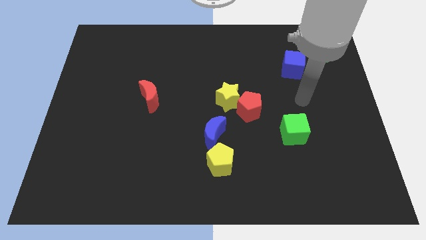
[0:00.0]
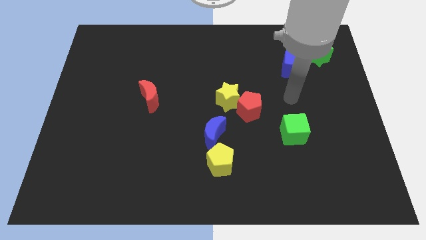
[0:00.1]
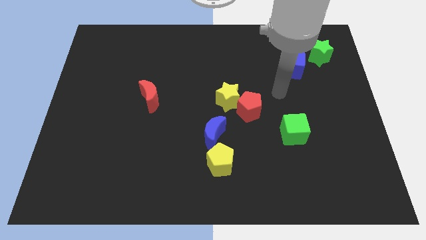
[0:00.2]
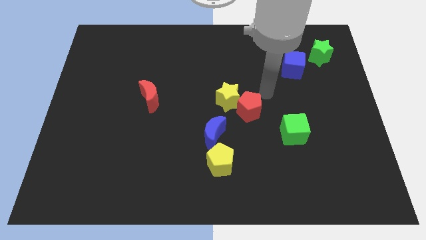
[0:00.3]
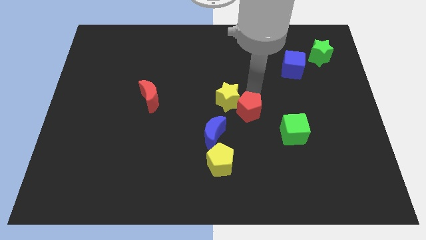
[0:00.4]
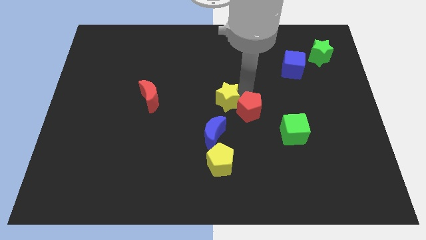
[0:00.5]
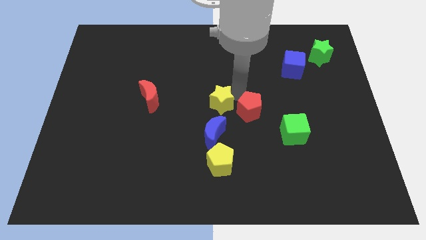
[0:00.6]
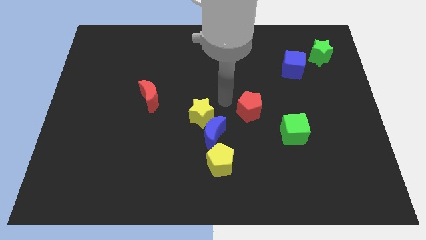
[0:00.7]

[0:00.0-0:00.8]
move the red pentagon away from the yellow star

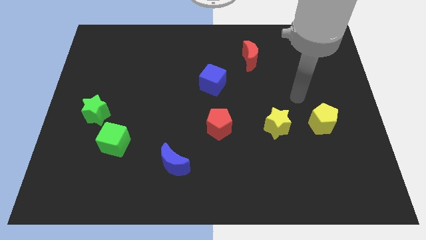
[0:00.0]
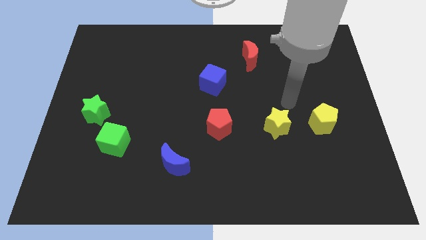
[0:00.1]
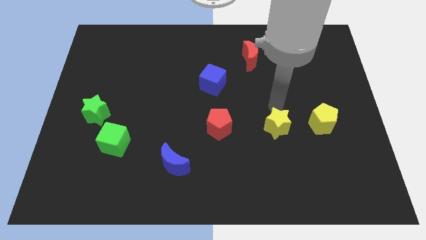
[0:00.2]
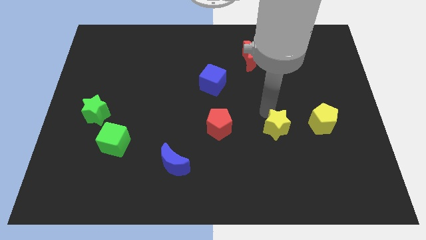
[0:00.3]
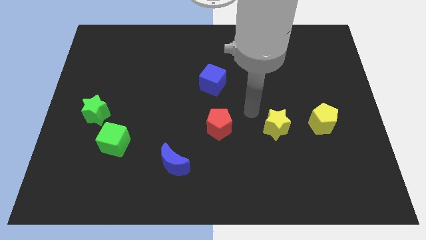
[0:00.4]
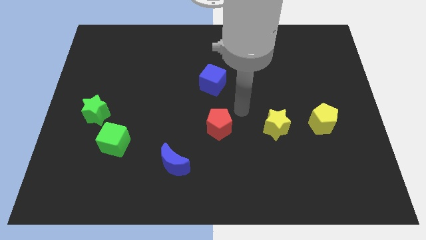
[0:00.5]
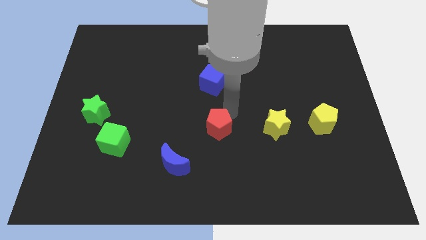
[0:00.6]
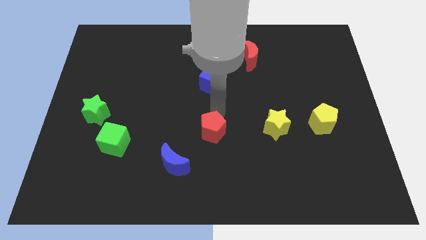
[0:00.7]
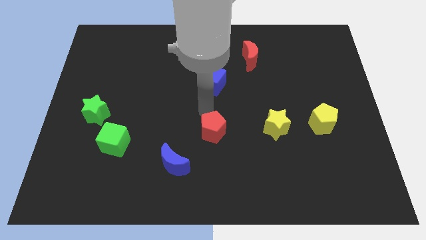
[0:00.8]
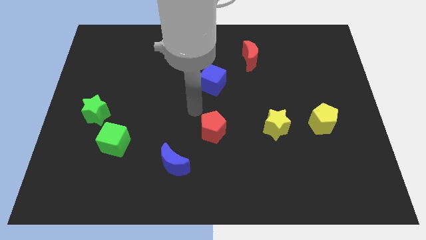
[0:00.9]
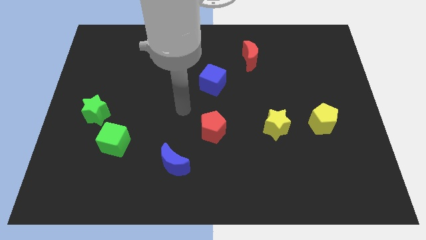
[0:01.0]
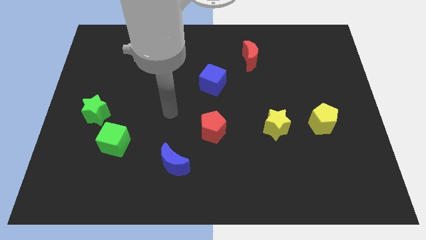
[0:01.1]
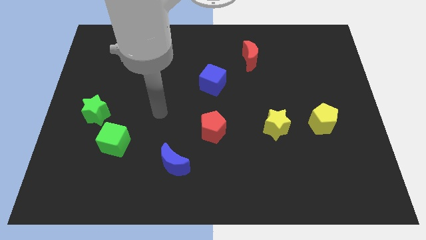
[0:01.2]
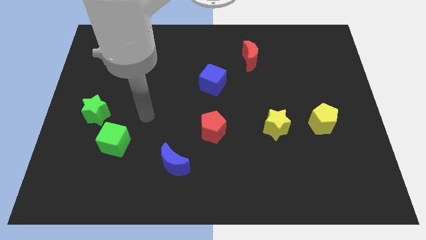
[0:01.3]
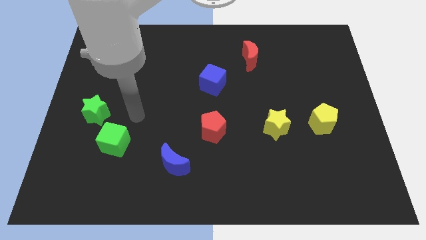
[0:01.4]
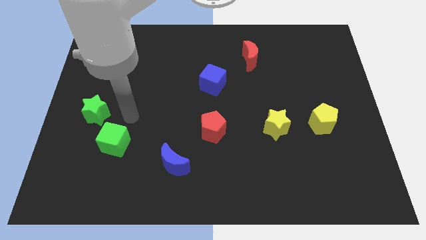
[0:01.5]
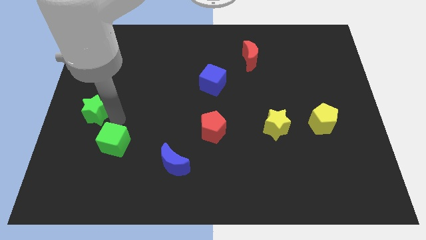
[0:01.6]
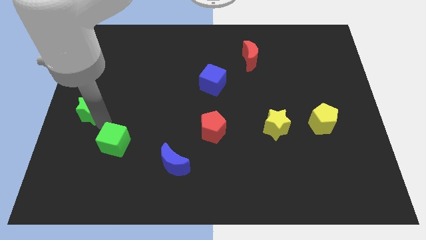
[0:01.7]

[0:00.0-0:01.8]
separate the green cube from the green star

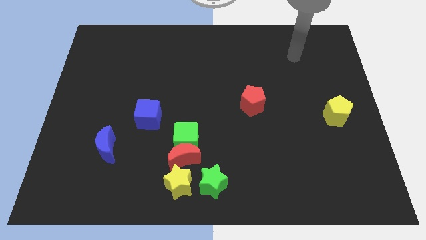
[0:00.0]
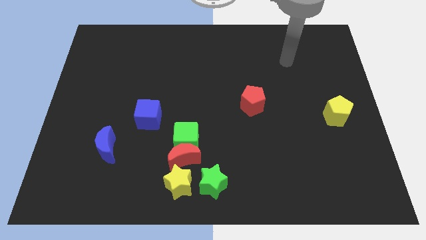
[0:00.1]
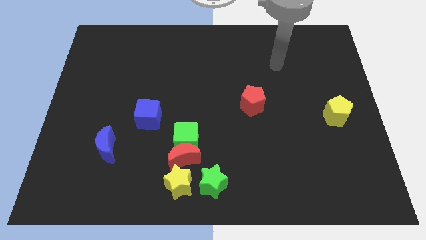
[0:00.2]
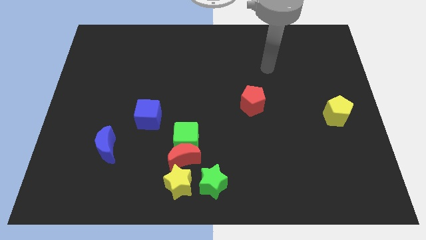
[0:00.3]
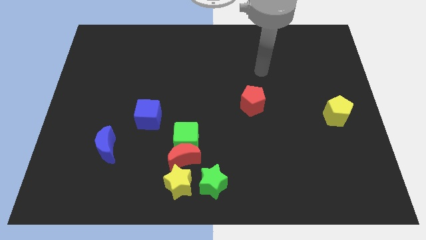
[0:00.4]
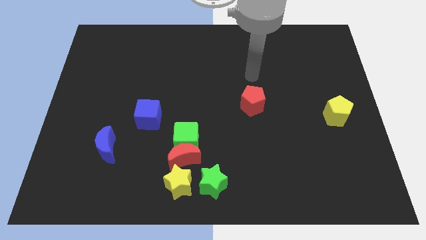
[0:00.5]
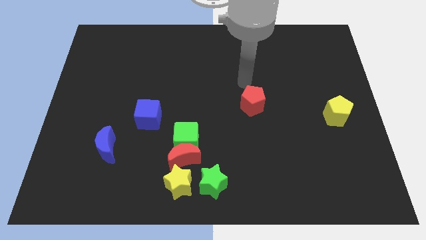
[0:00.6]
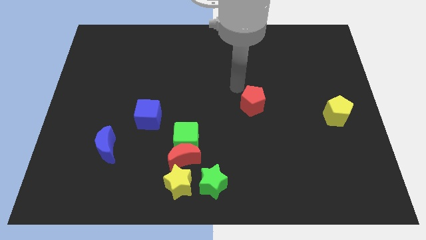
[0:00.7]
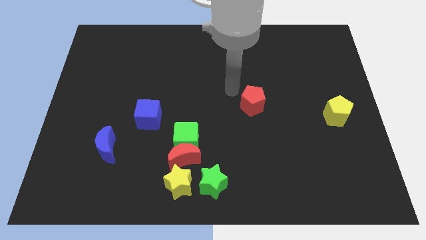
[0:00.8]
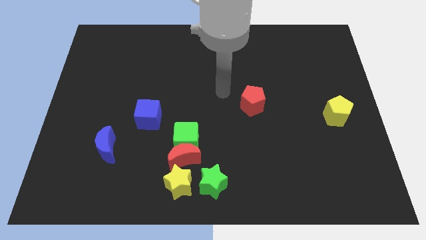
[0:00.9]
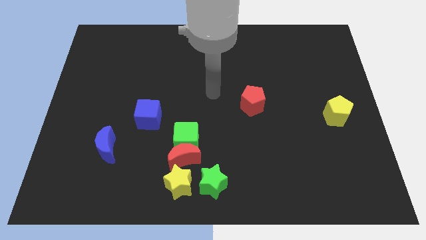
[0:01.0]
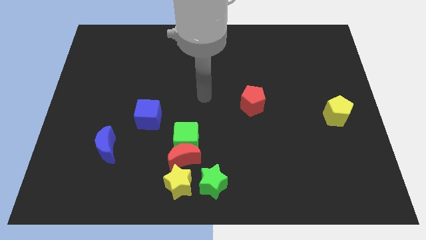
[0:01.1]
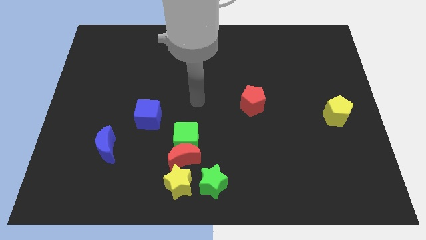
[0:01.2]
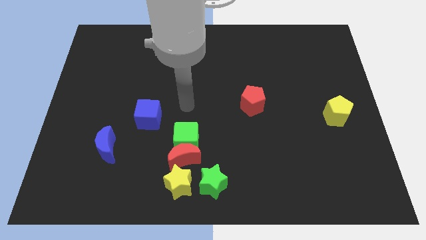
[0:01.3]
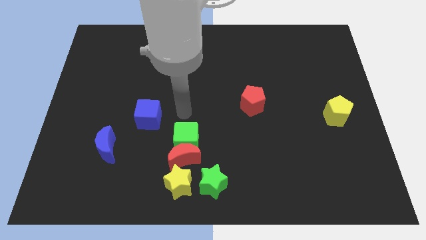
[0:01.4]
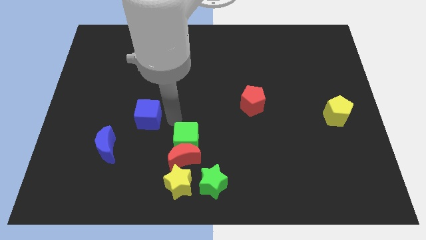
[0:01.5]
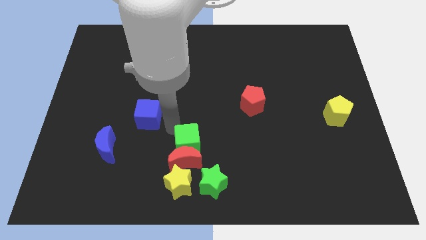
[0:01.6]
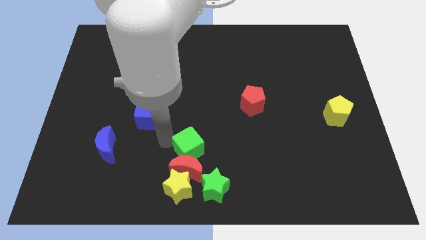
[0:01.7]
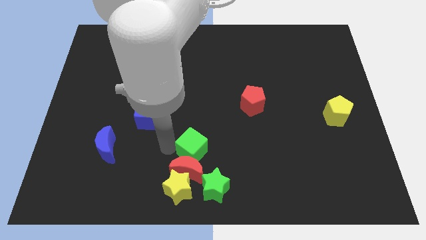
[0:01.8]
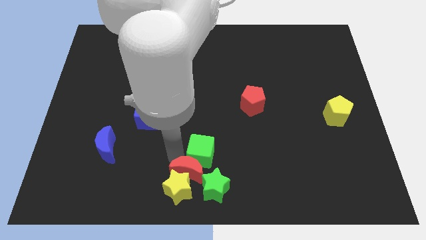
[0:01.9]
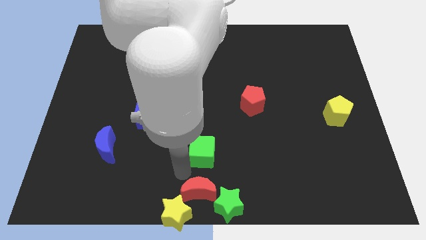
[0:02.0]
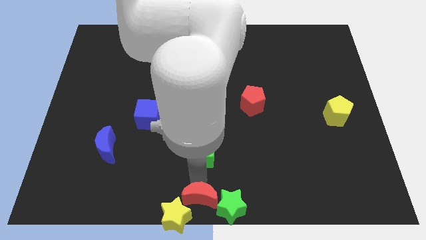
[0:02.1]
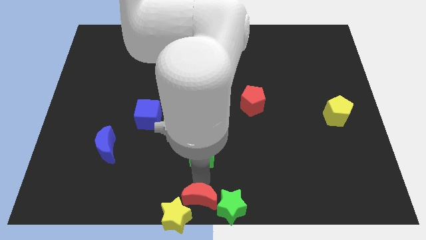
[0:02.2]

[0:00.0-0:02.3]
separate the green cube from the red moon

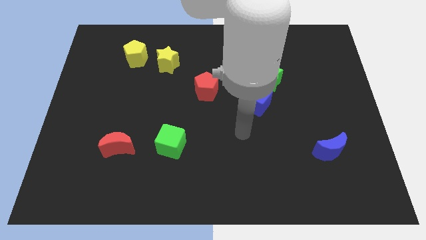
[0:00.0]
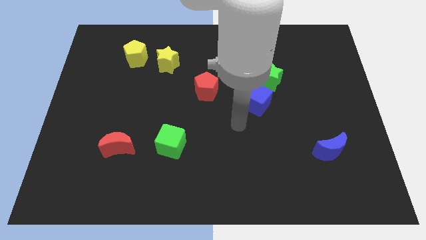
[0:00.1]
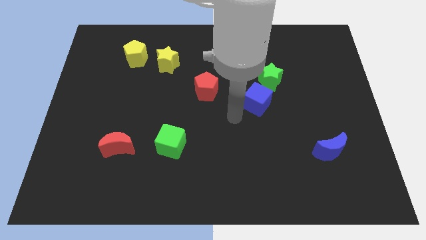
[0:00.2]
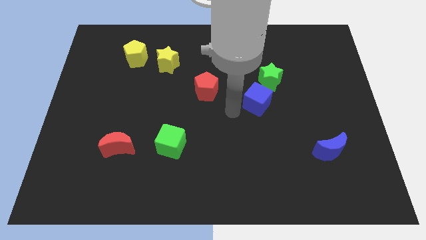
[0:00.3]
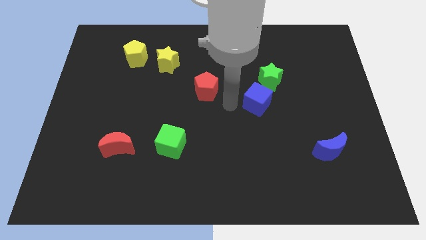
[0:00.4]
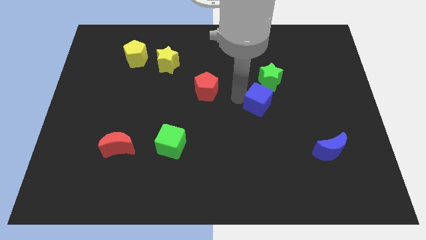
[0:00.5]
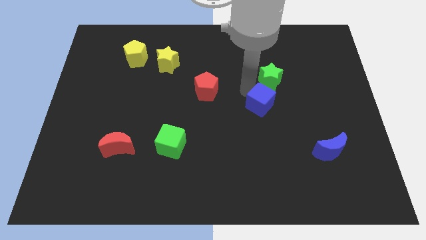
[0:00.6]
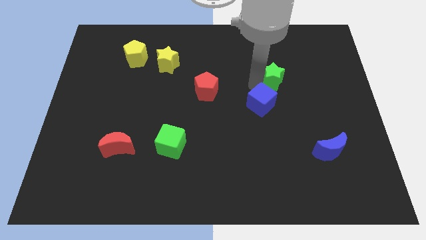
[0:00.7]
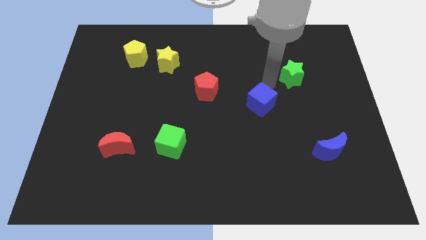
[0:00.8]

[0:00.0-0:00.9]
separate the blue cube from the green star

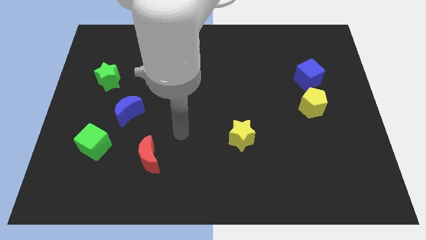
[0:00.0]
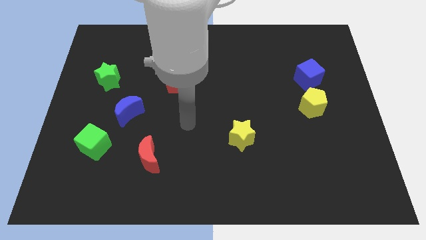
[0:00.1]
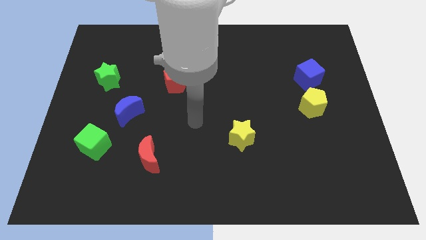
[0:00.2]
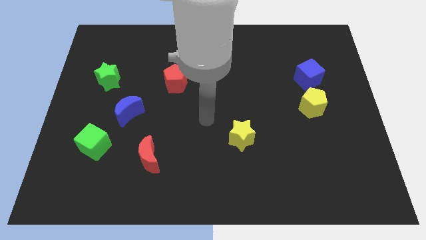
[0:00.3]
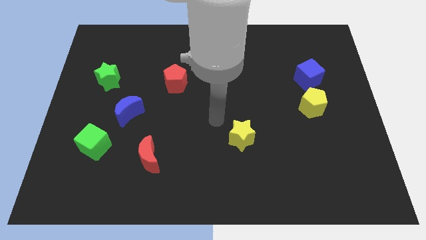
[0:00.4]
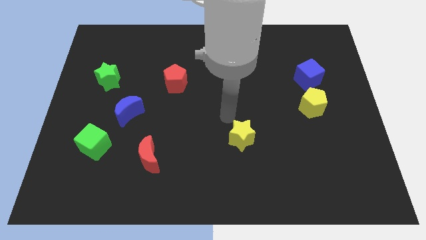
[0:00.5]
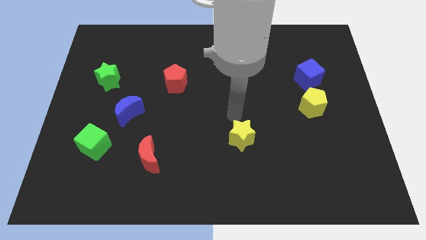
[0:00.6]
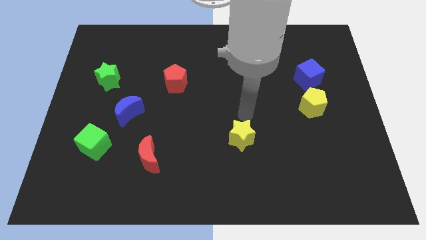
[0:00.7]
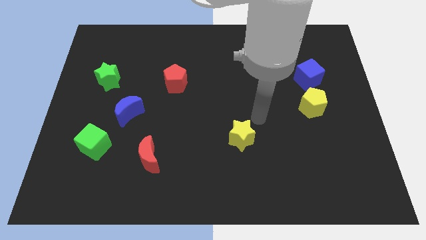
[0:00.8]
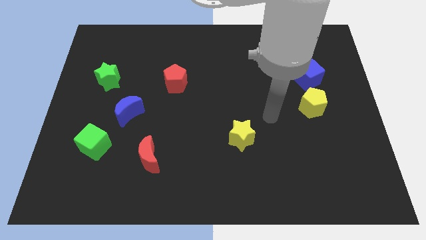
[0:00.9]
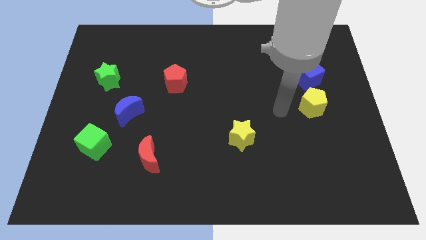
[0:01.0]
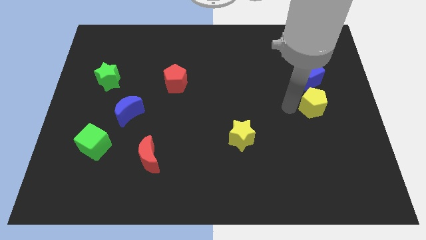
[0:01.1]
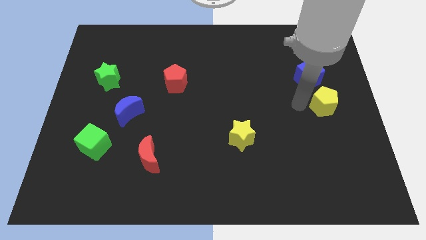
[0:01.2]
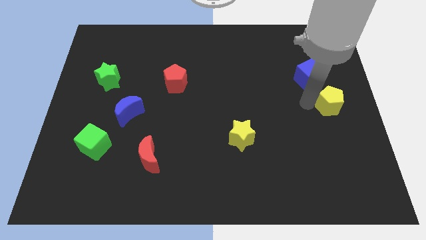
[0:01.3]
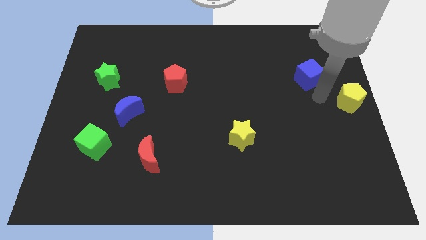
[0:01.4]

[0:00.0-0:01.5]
separate the blue cube from the yellow pentagon

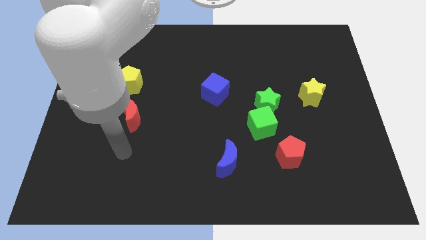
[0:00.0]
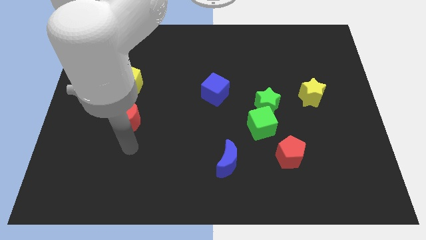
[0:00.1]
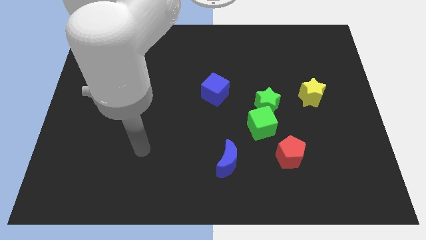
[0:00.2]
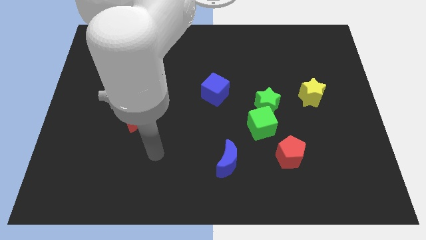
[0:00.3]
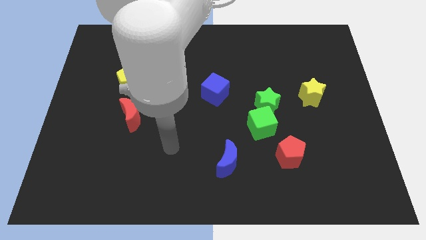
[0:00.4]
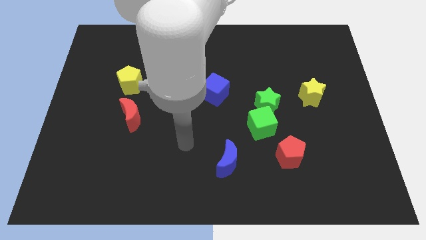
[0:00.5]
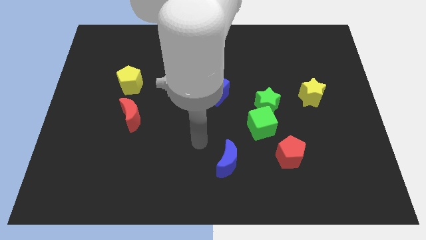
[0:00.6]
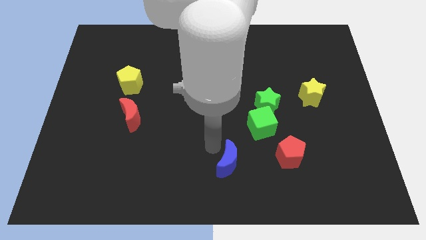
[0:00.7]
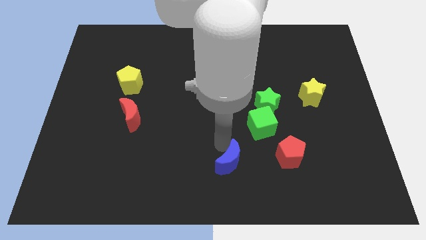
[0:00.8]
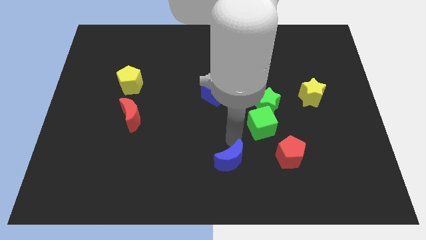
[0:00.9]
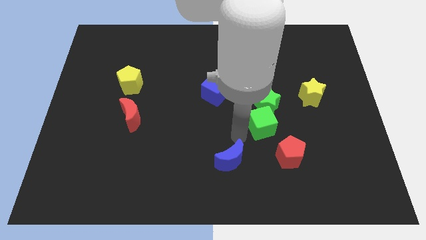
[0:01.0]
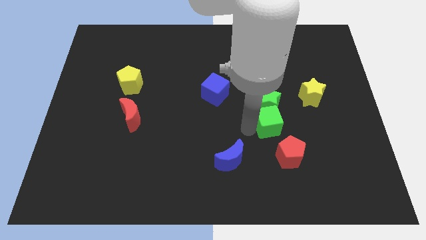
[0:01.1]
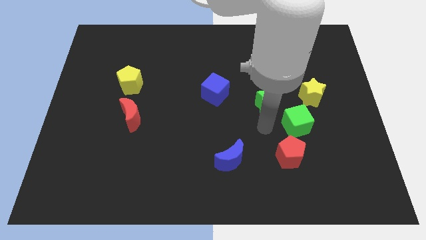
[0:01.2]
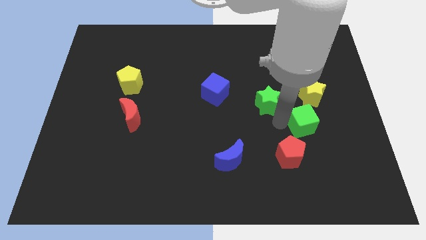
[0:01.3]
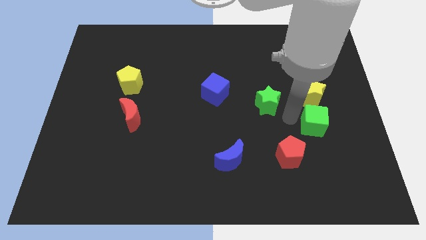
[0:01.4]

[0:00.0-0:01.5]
separate the green star from the green cube

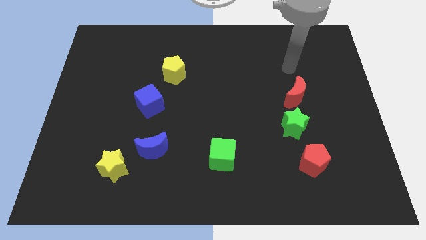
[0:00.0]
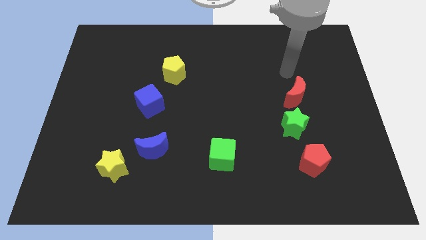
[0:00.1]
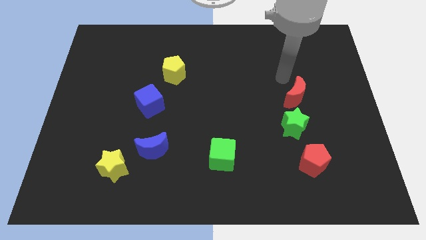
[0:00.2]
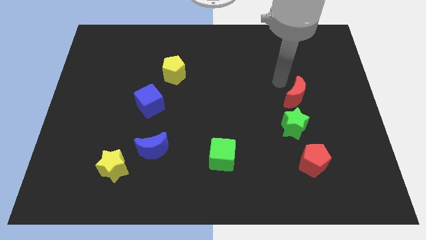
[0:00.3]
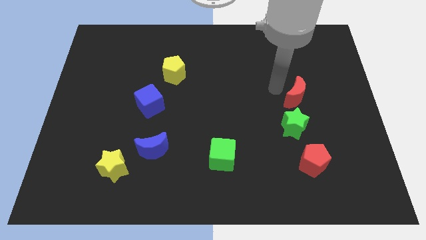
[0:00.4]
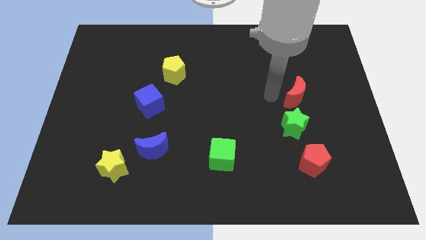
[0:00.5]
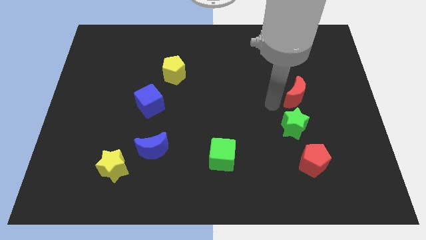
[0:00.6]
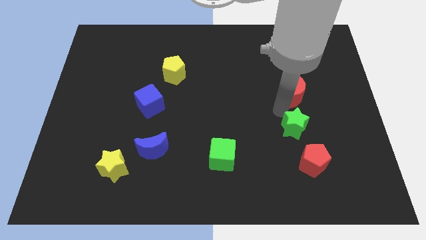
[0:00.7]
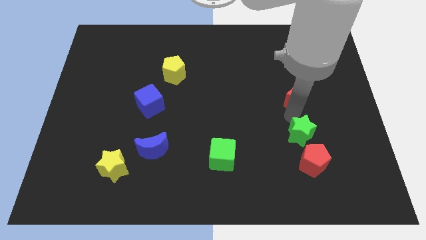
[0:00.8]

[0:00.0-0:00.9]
pull the red moon apart from the green star
